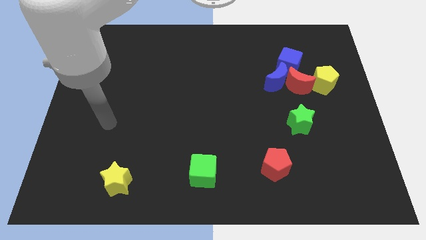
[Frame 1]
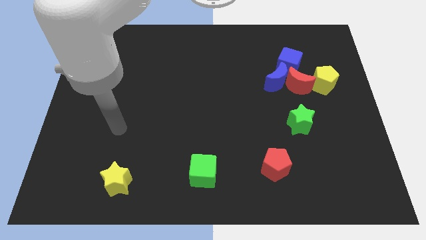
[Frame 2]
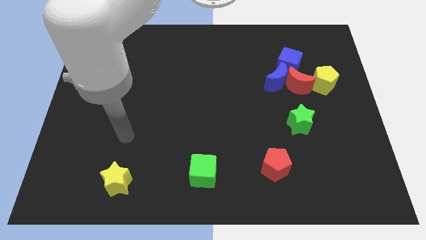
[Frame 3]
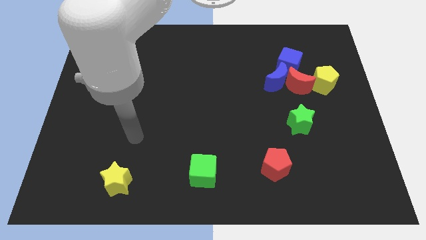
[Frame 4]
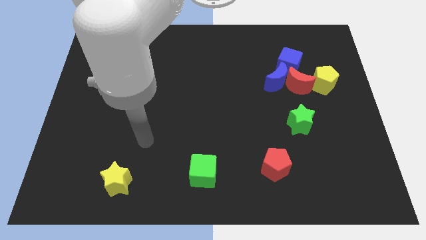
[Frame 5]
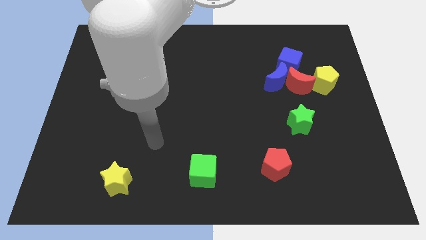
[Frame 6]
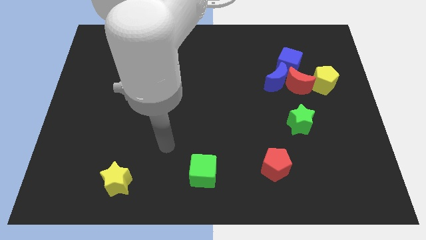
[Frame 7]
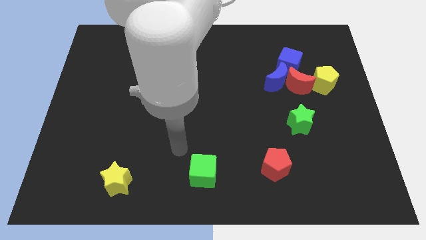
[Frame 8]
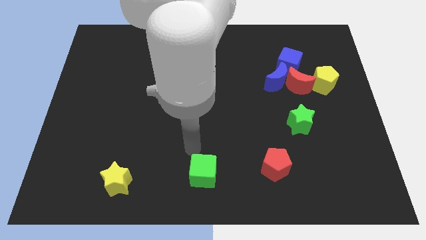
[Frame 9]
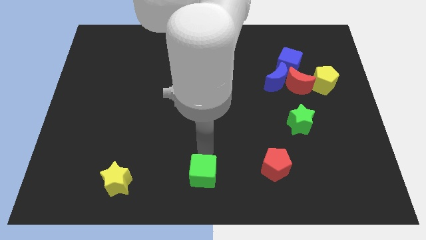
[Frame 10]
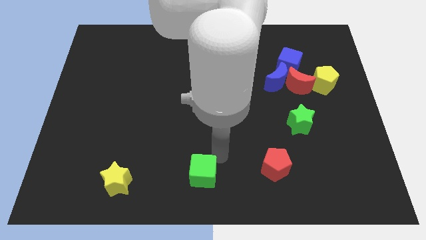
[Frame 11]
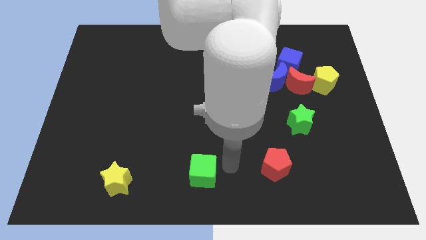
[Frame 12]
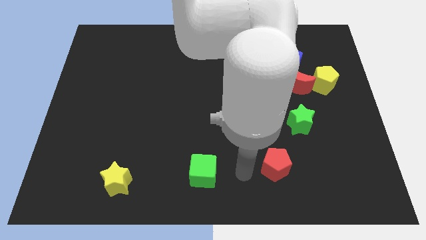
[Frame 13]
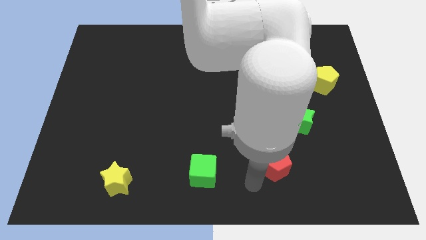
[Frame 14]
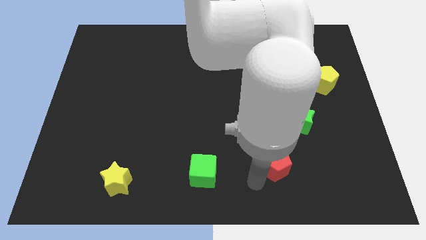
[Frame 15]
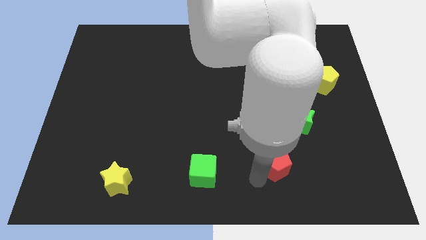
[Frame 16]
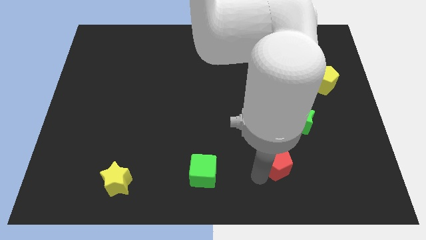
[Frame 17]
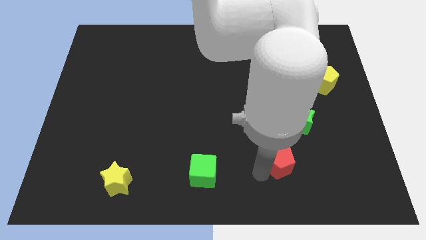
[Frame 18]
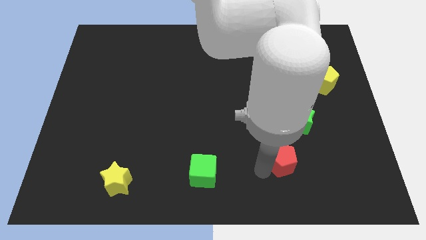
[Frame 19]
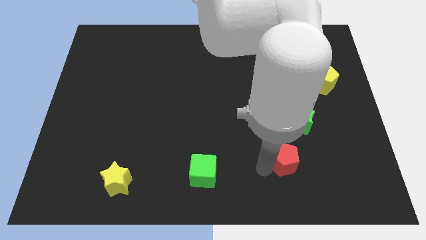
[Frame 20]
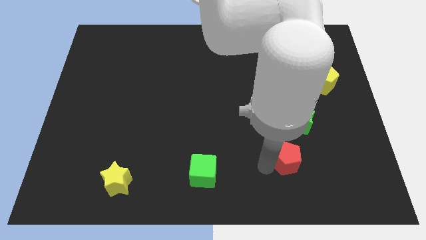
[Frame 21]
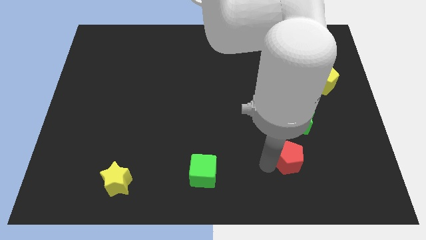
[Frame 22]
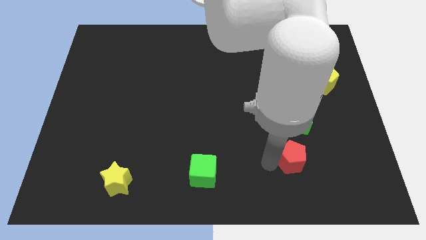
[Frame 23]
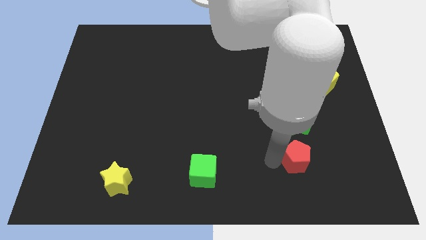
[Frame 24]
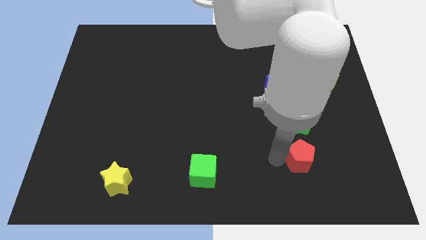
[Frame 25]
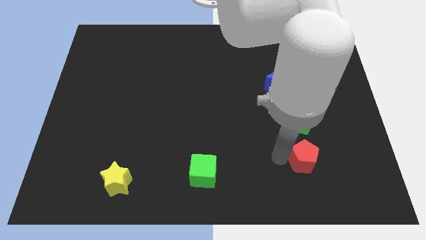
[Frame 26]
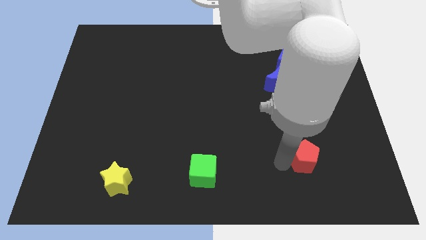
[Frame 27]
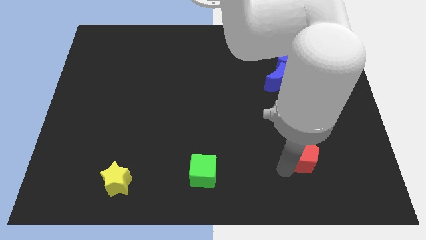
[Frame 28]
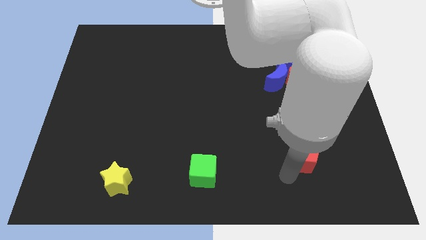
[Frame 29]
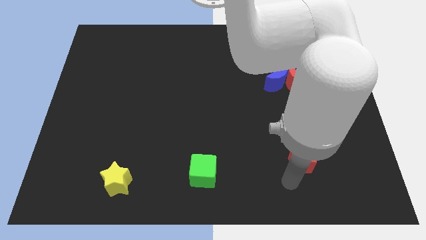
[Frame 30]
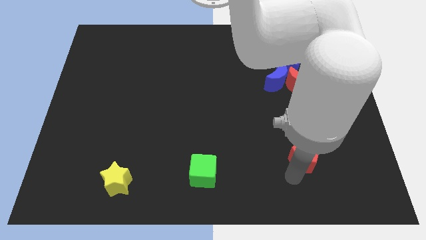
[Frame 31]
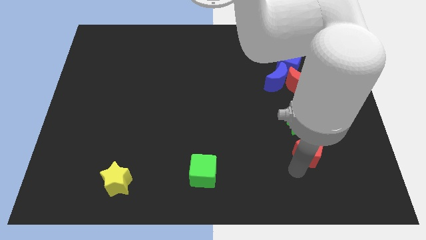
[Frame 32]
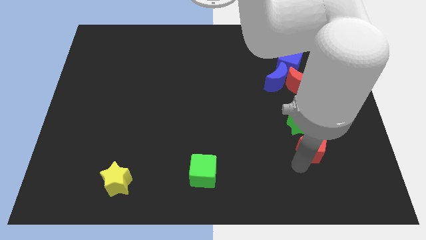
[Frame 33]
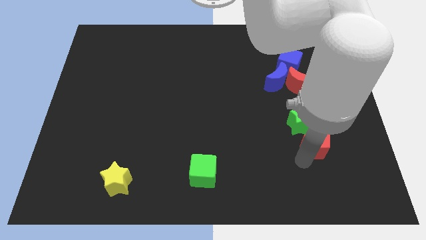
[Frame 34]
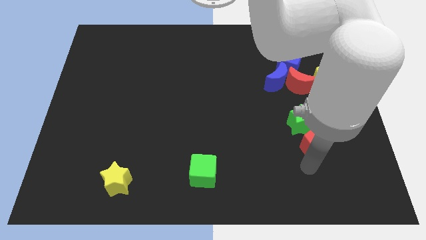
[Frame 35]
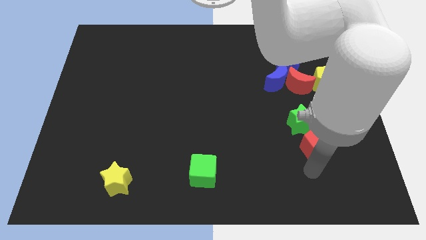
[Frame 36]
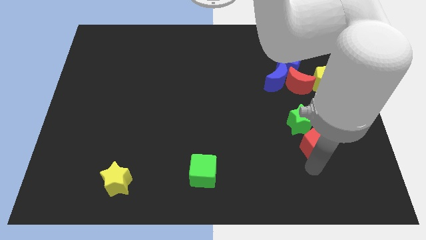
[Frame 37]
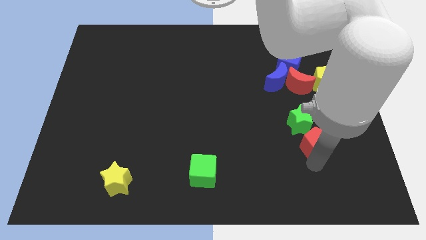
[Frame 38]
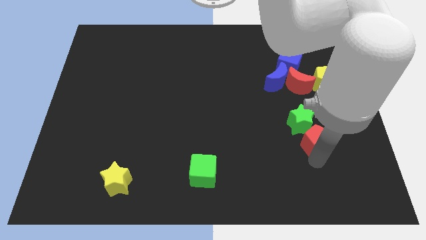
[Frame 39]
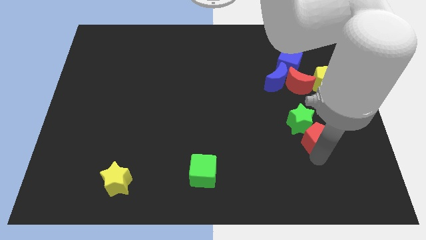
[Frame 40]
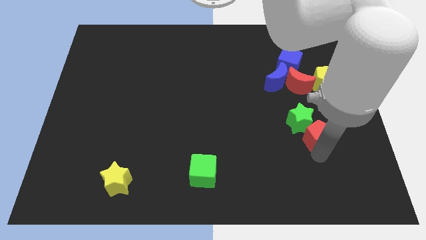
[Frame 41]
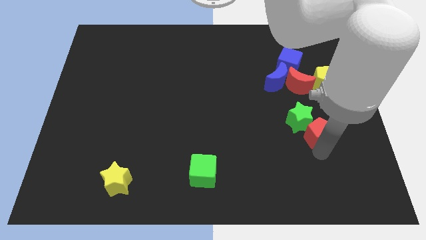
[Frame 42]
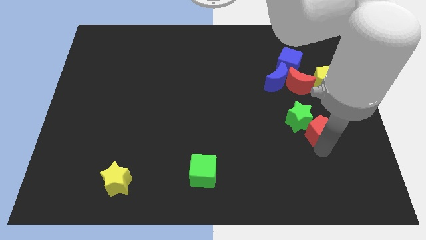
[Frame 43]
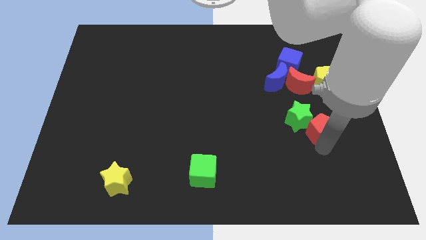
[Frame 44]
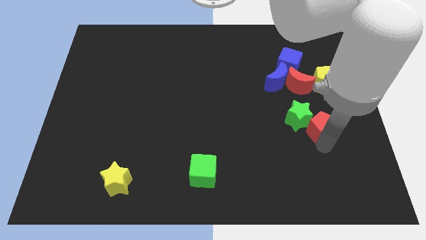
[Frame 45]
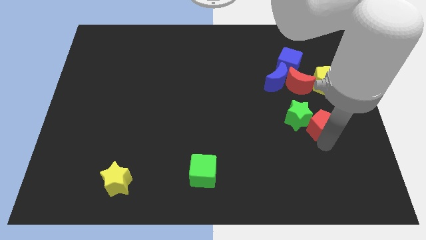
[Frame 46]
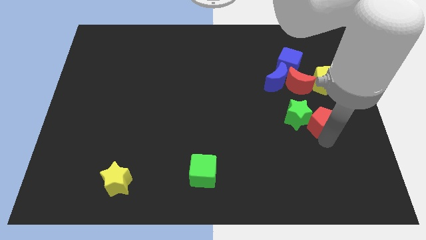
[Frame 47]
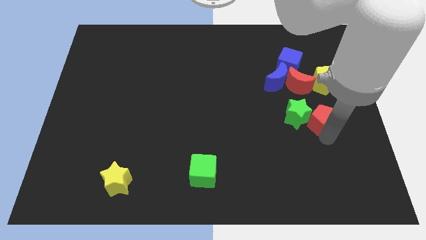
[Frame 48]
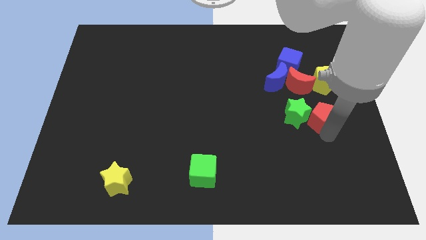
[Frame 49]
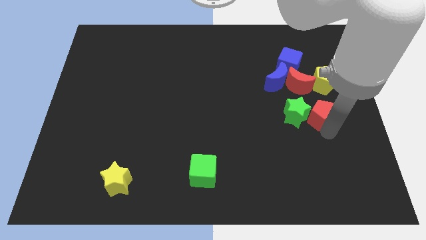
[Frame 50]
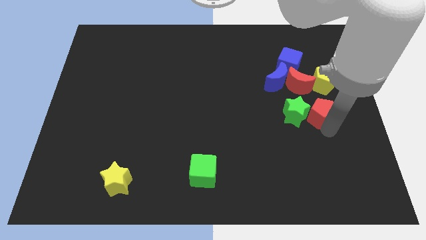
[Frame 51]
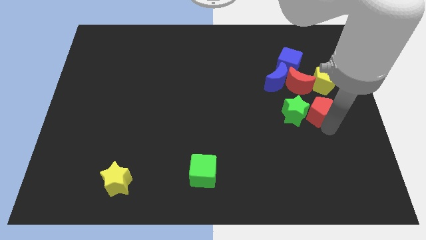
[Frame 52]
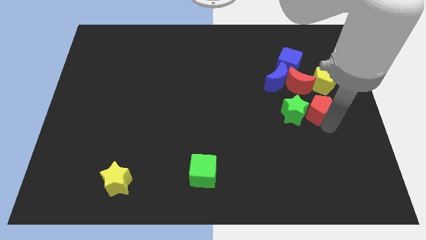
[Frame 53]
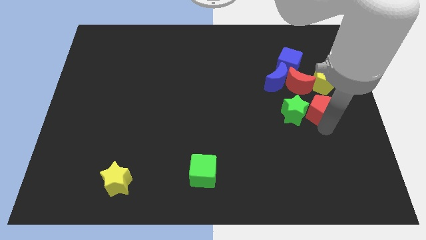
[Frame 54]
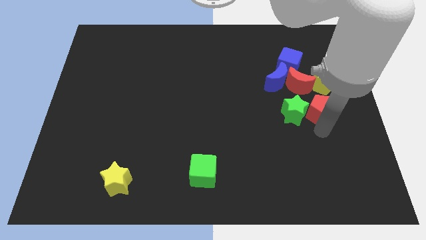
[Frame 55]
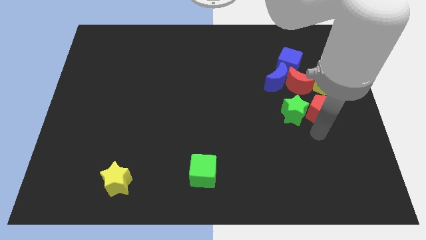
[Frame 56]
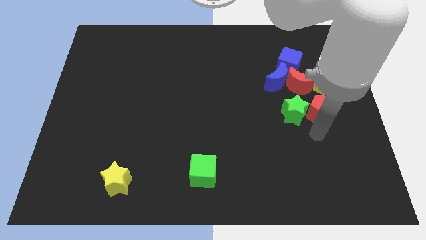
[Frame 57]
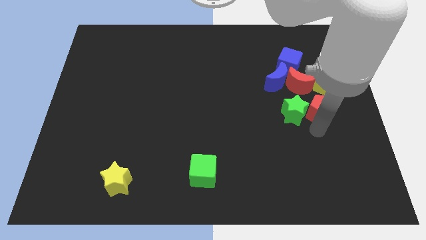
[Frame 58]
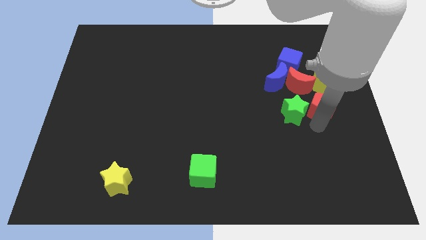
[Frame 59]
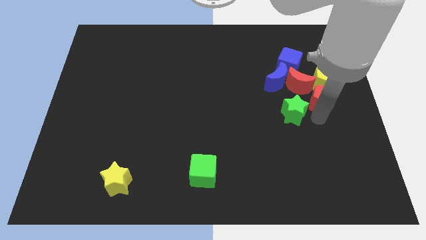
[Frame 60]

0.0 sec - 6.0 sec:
put the red pentagon towards the yellow pentagon

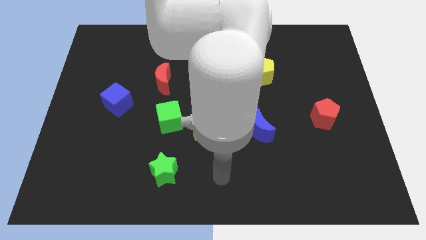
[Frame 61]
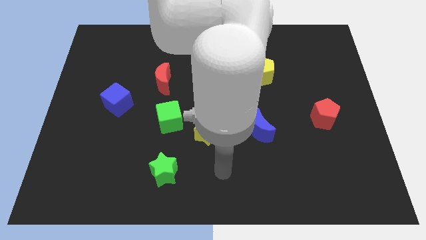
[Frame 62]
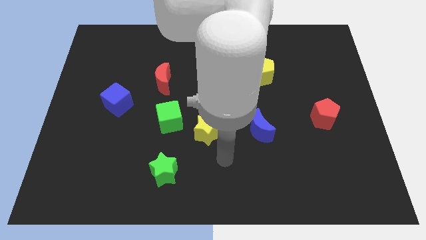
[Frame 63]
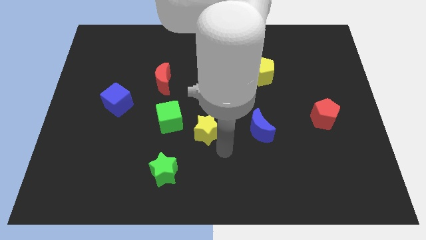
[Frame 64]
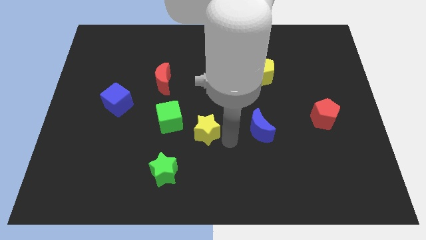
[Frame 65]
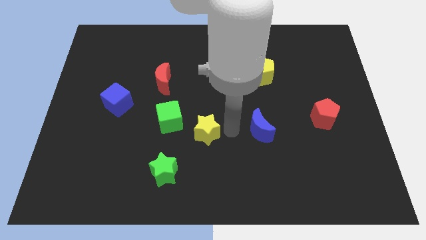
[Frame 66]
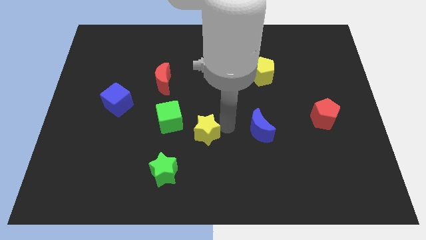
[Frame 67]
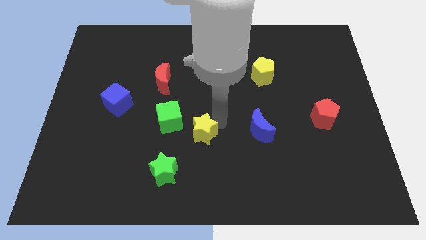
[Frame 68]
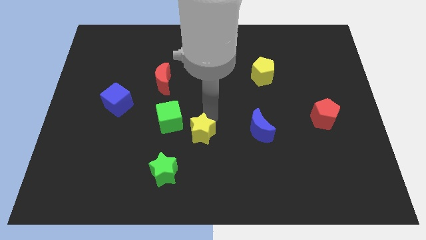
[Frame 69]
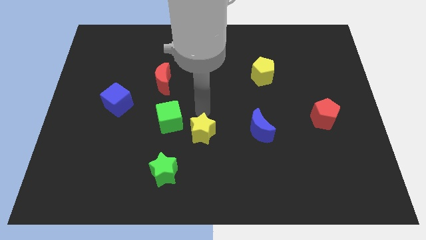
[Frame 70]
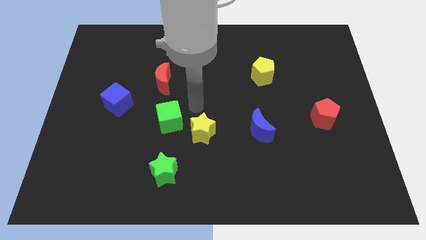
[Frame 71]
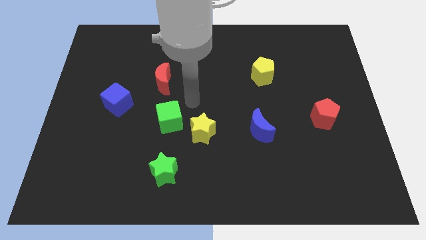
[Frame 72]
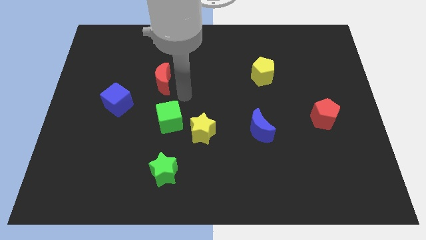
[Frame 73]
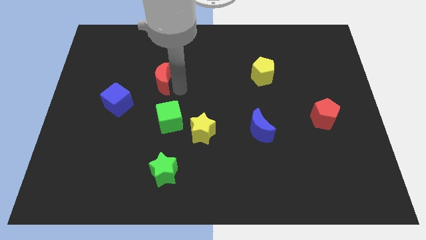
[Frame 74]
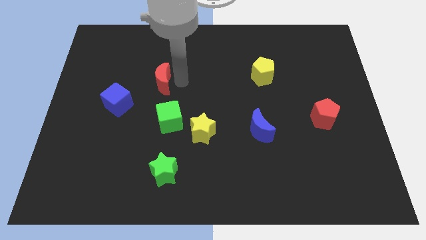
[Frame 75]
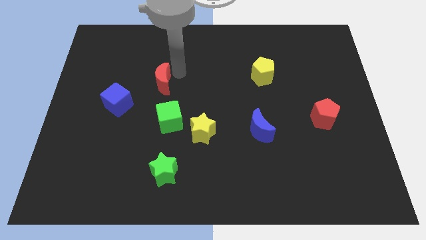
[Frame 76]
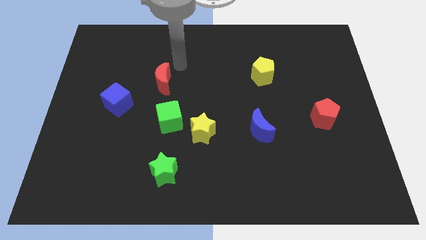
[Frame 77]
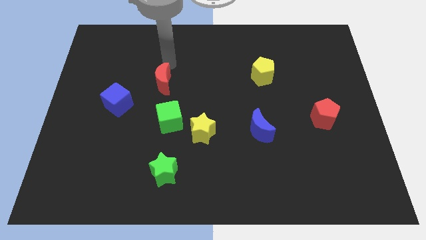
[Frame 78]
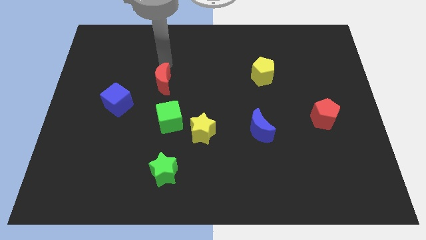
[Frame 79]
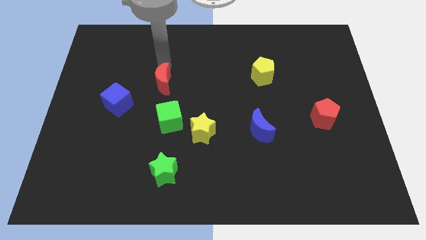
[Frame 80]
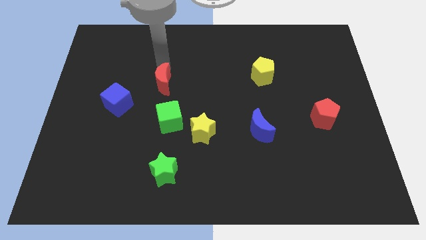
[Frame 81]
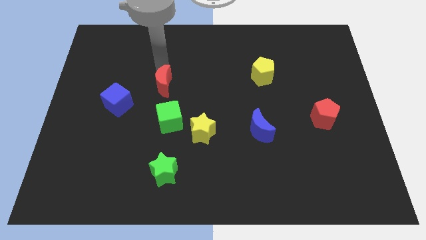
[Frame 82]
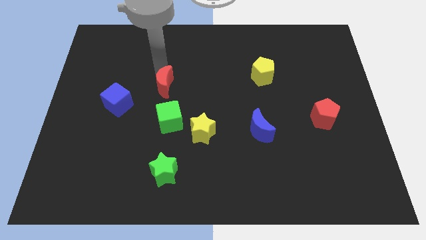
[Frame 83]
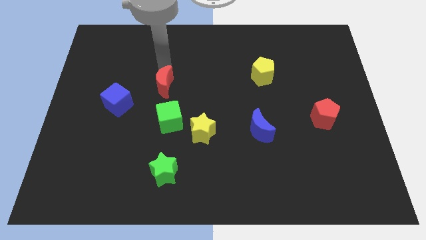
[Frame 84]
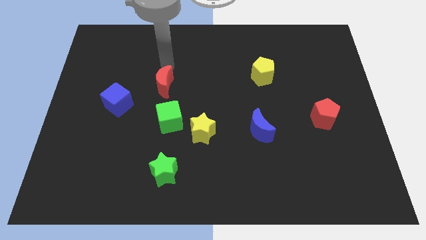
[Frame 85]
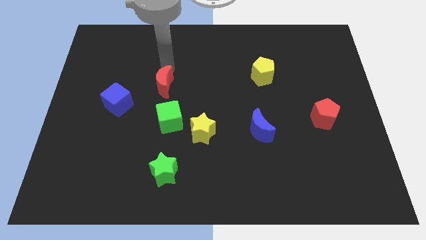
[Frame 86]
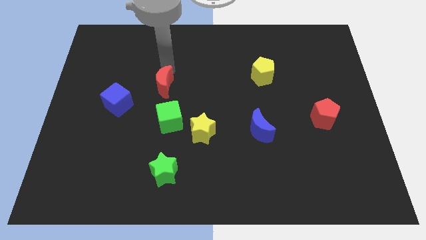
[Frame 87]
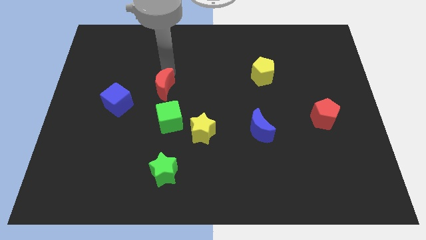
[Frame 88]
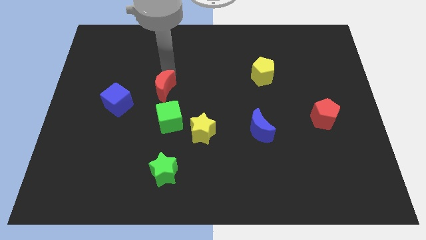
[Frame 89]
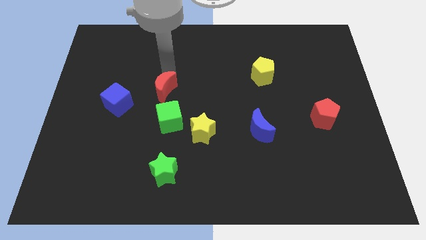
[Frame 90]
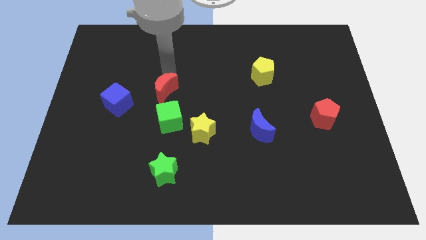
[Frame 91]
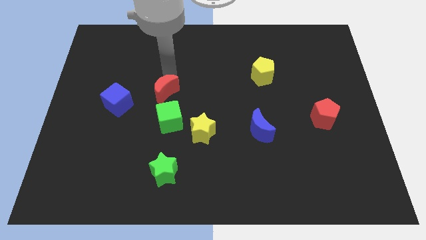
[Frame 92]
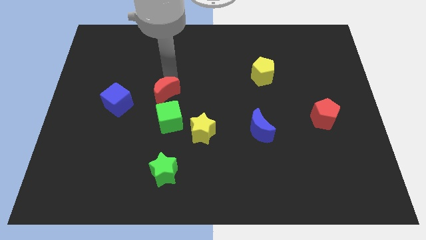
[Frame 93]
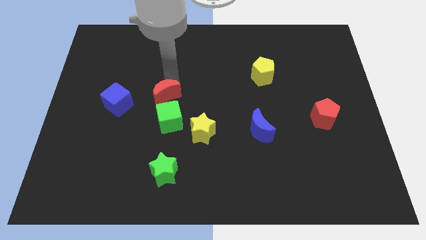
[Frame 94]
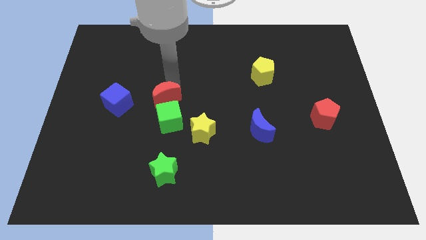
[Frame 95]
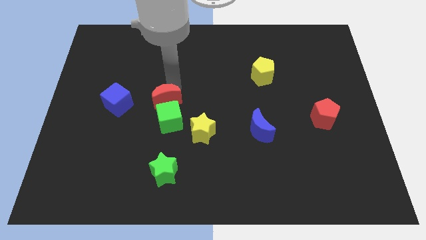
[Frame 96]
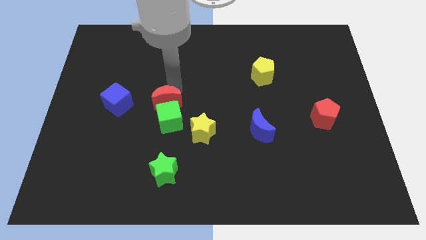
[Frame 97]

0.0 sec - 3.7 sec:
move the red moon close to the green cube
